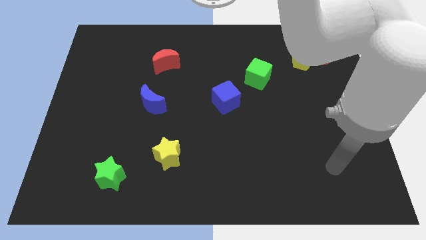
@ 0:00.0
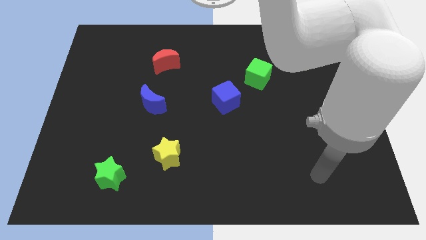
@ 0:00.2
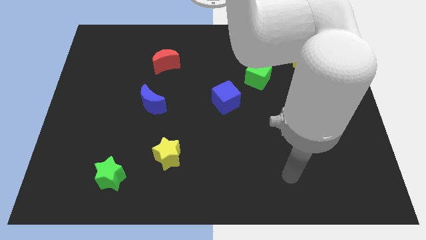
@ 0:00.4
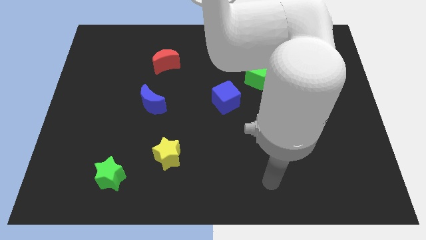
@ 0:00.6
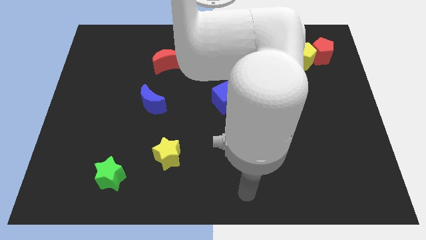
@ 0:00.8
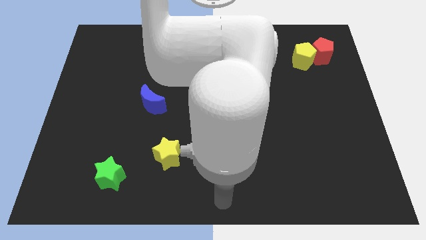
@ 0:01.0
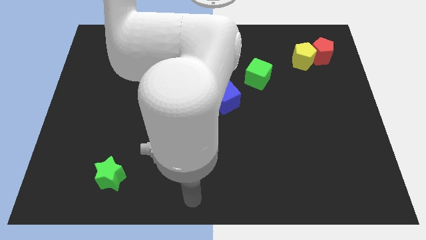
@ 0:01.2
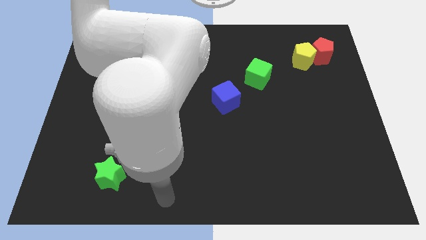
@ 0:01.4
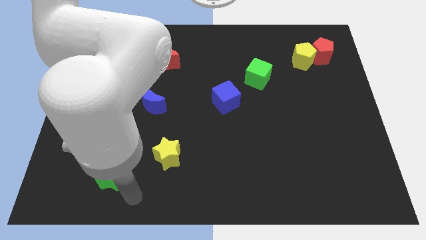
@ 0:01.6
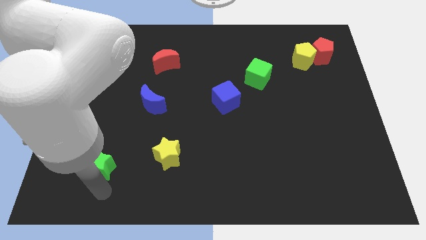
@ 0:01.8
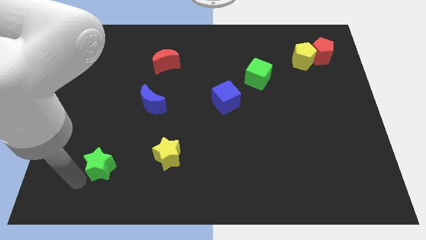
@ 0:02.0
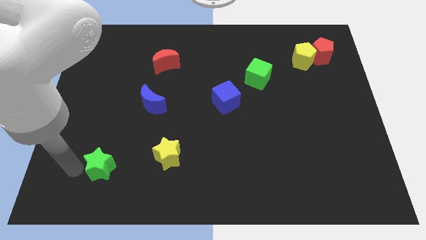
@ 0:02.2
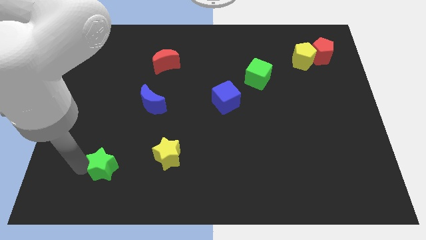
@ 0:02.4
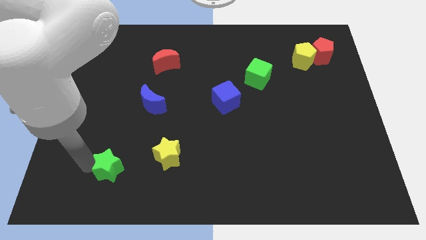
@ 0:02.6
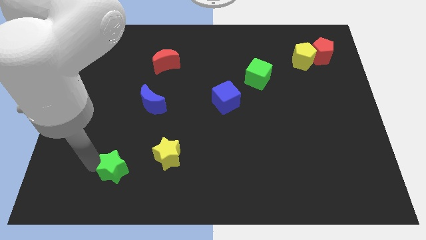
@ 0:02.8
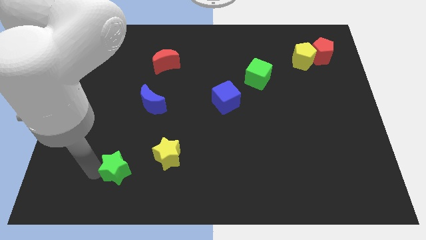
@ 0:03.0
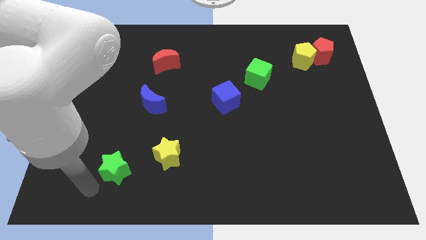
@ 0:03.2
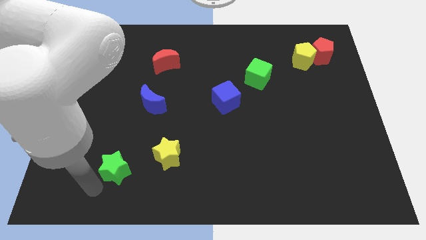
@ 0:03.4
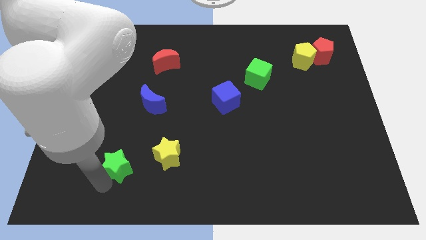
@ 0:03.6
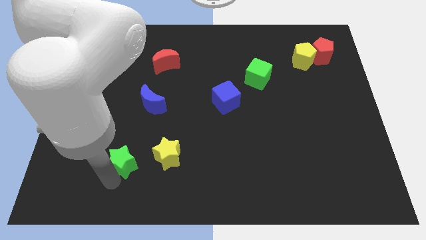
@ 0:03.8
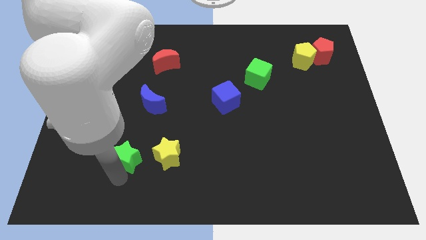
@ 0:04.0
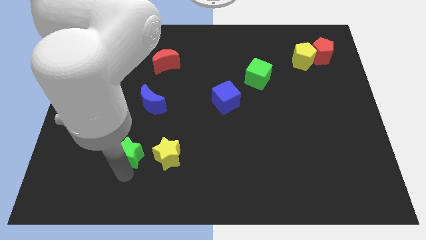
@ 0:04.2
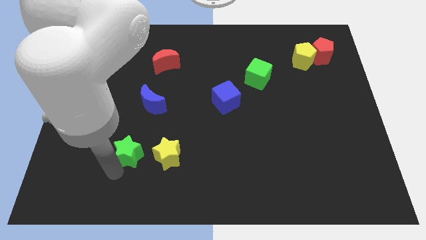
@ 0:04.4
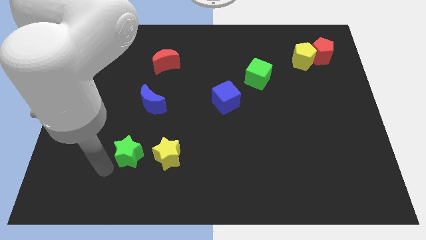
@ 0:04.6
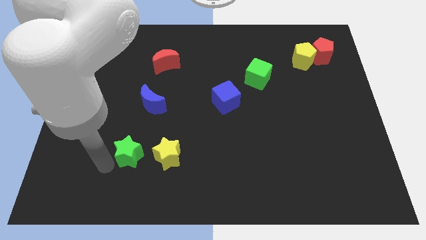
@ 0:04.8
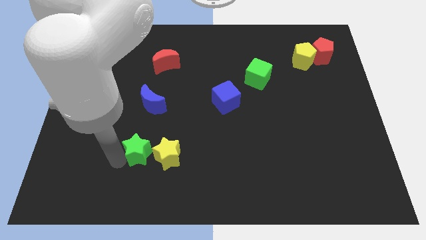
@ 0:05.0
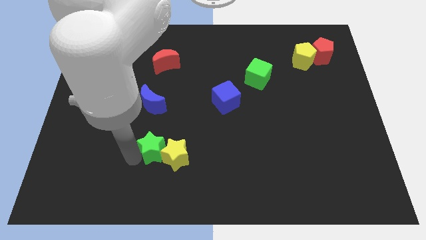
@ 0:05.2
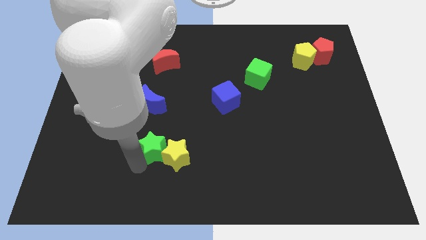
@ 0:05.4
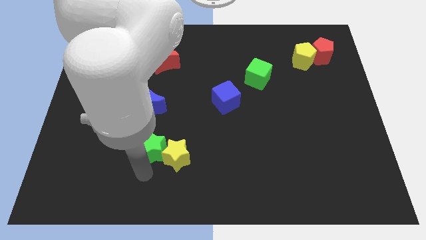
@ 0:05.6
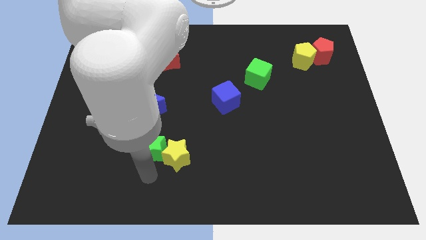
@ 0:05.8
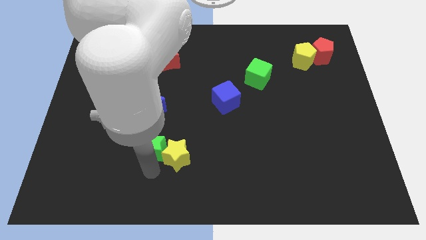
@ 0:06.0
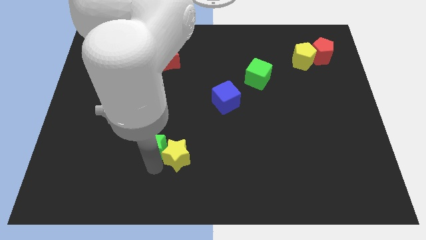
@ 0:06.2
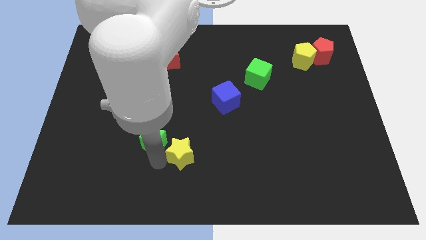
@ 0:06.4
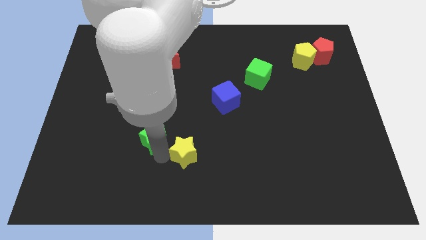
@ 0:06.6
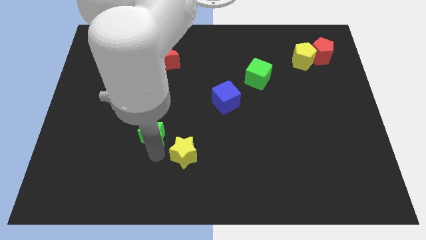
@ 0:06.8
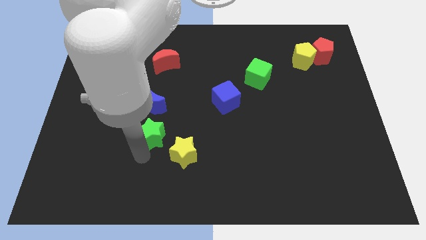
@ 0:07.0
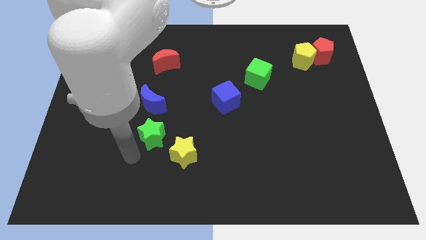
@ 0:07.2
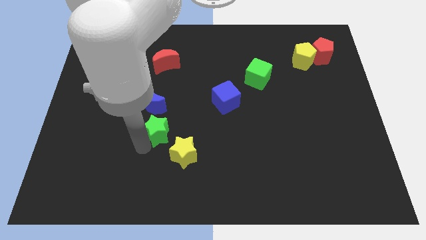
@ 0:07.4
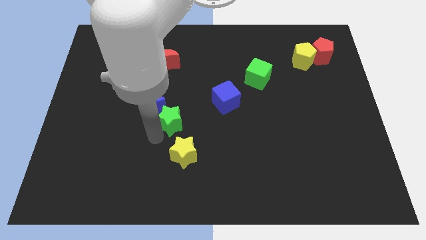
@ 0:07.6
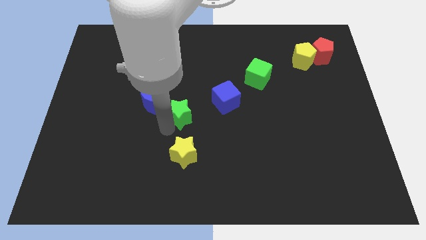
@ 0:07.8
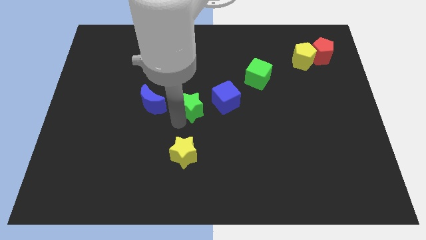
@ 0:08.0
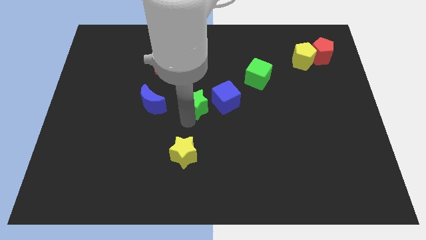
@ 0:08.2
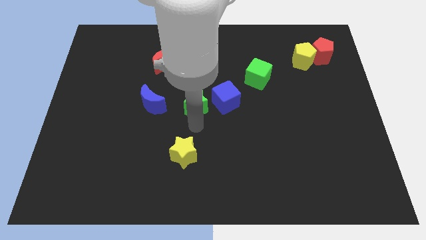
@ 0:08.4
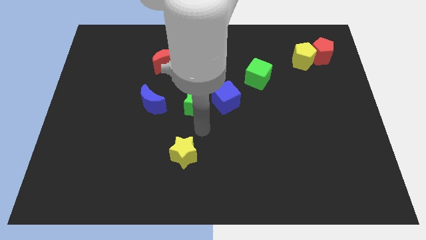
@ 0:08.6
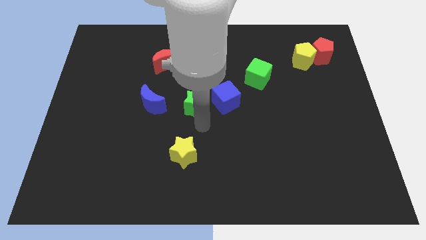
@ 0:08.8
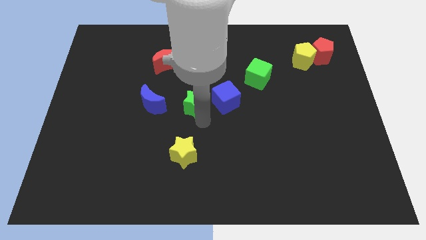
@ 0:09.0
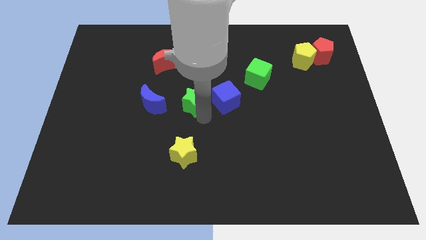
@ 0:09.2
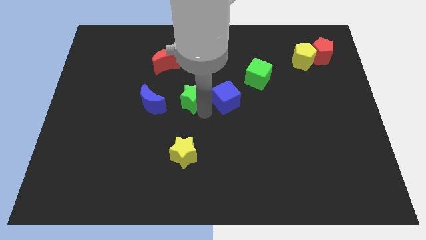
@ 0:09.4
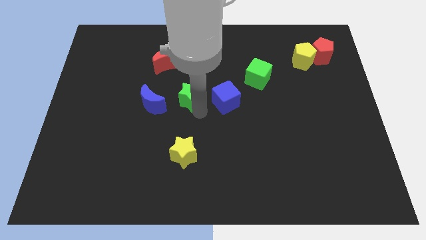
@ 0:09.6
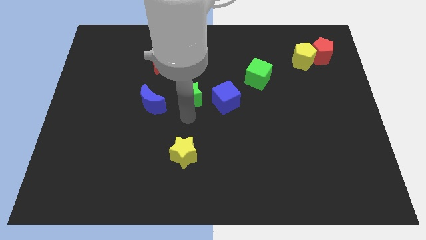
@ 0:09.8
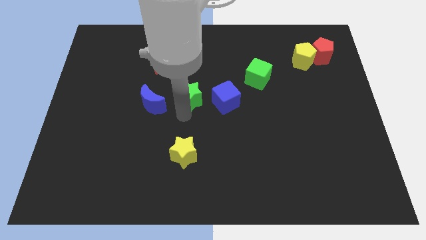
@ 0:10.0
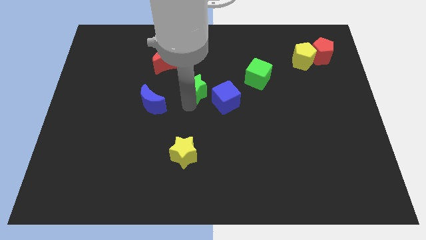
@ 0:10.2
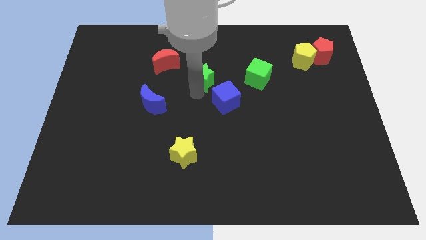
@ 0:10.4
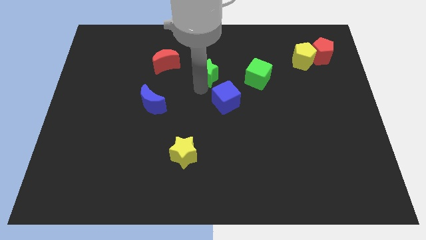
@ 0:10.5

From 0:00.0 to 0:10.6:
move the green star right of the red moon

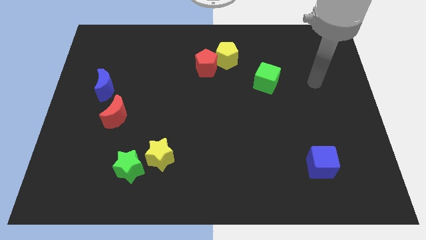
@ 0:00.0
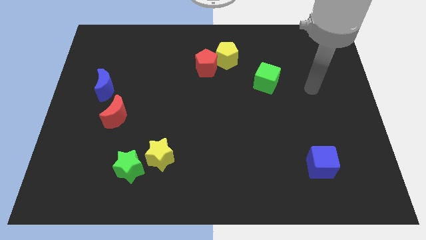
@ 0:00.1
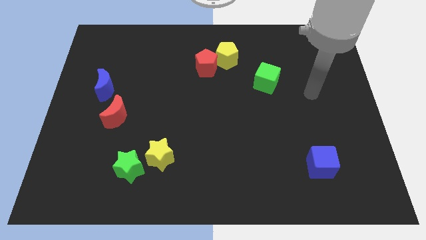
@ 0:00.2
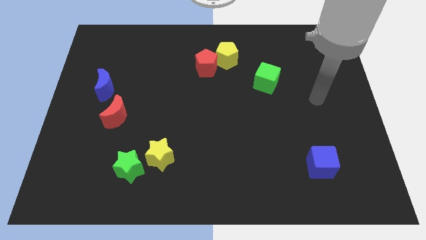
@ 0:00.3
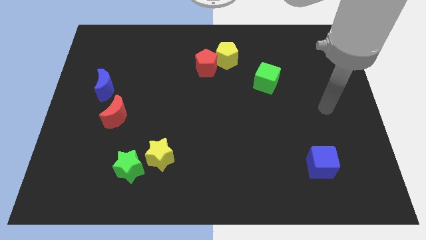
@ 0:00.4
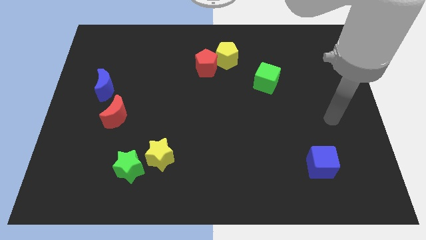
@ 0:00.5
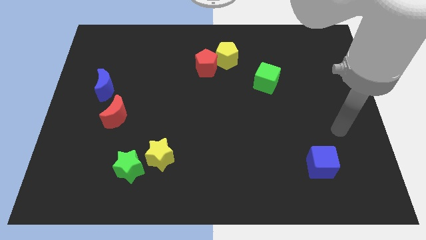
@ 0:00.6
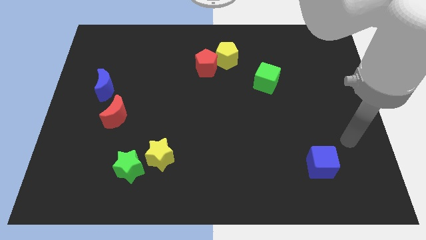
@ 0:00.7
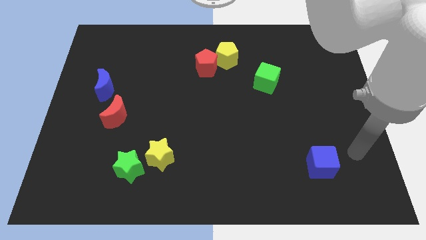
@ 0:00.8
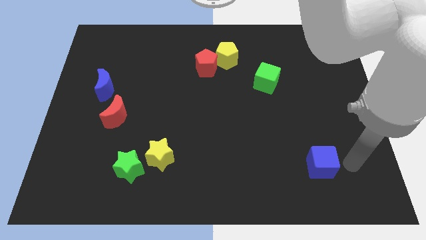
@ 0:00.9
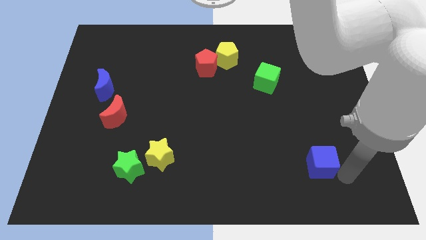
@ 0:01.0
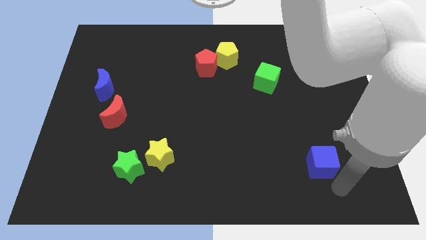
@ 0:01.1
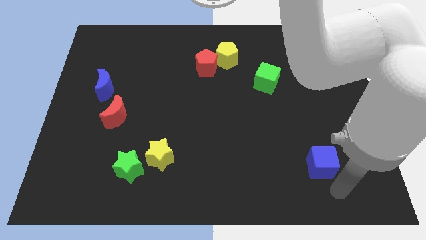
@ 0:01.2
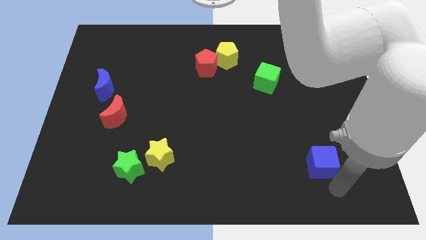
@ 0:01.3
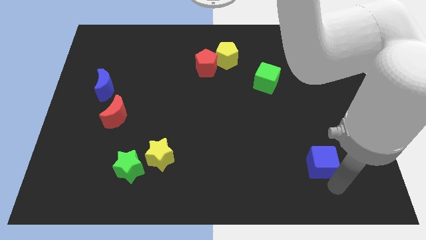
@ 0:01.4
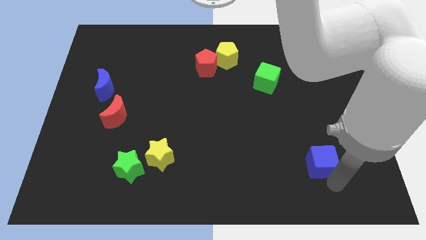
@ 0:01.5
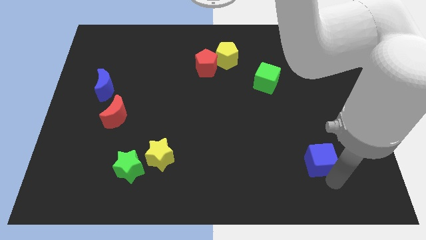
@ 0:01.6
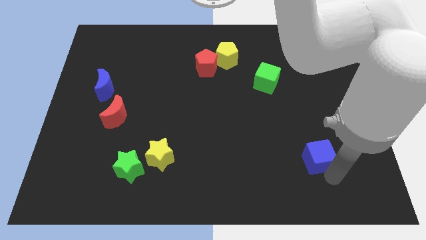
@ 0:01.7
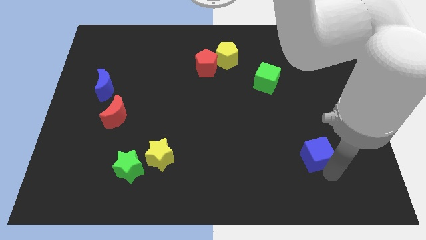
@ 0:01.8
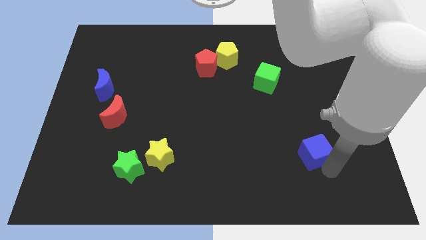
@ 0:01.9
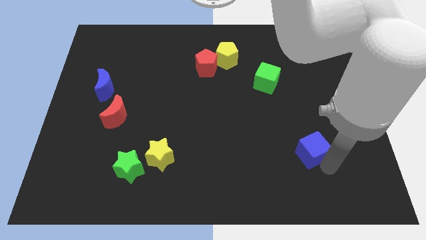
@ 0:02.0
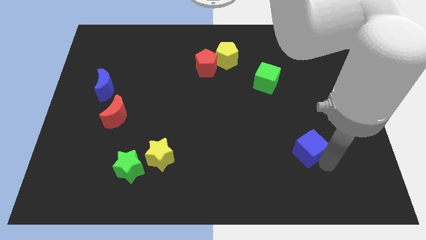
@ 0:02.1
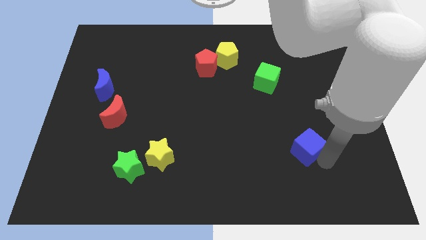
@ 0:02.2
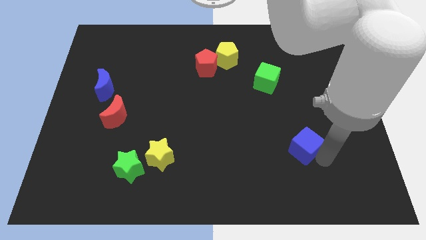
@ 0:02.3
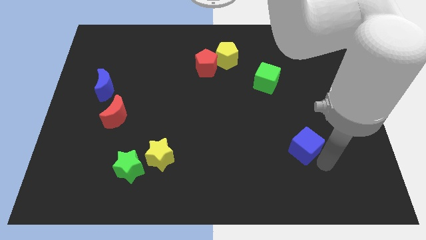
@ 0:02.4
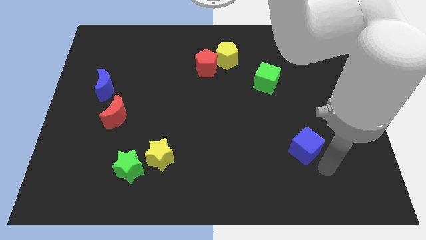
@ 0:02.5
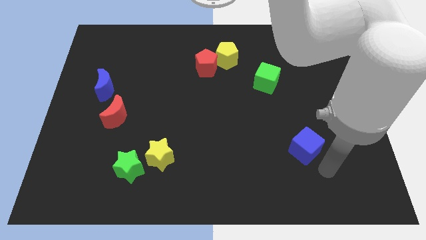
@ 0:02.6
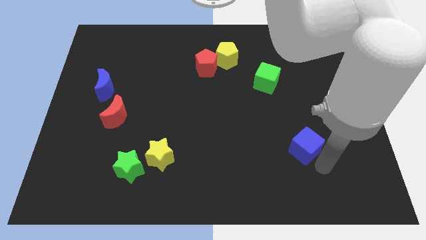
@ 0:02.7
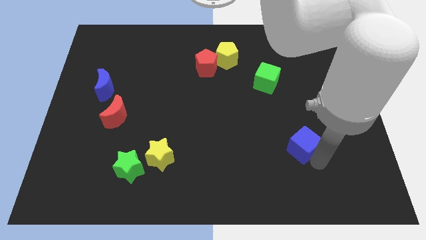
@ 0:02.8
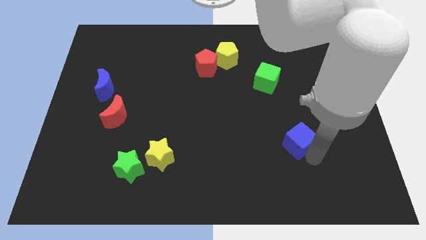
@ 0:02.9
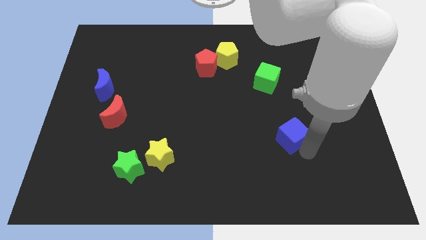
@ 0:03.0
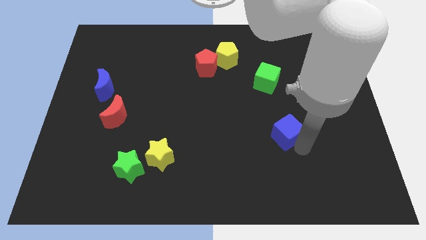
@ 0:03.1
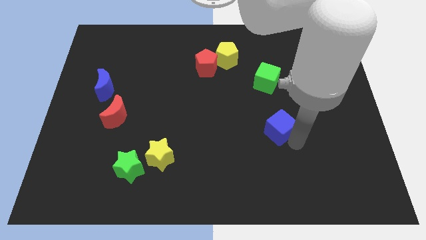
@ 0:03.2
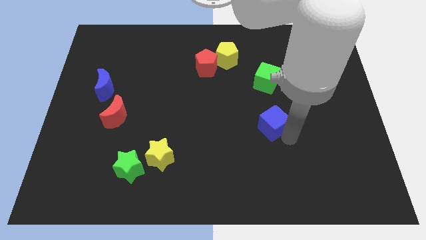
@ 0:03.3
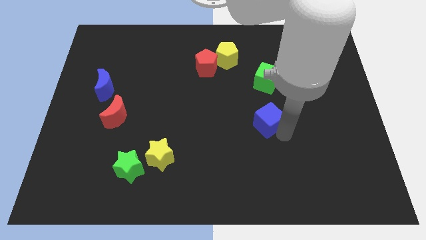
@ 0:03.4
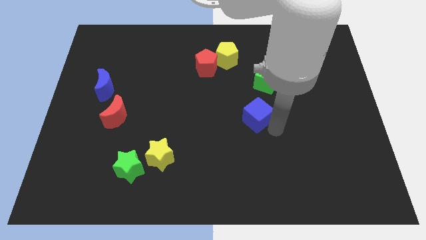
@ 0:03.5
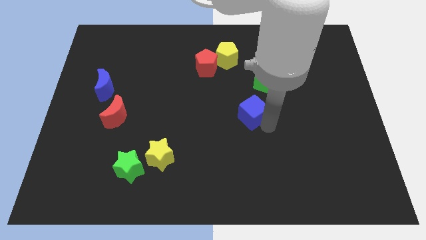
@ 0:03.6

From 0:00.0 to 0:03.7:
slide the blue cube to the bottom left side of the green cube
